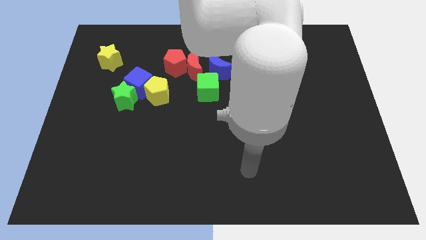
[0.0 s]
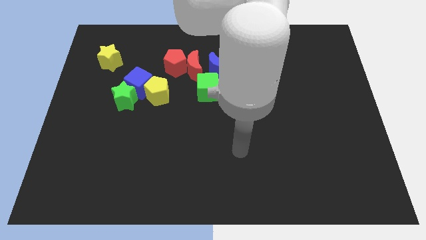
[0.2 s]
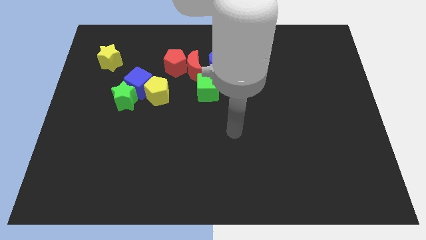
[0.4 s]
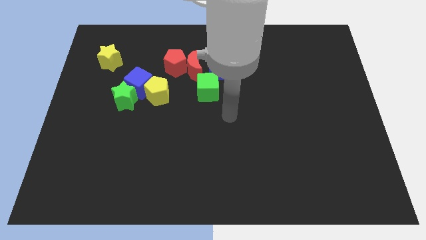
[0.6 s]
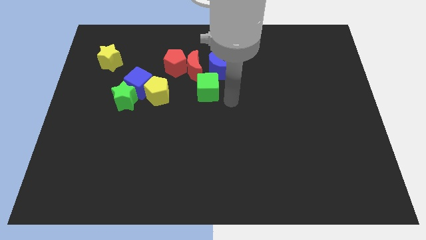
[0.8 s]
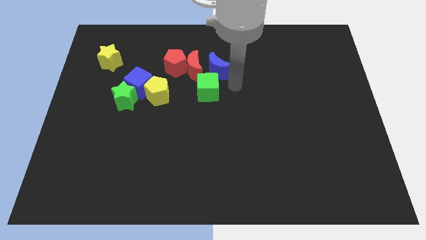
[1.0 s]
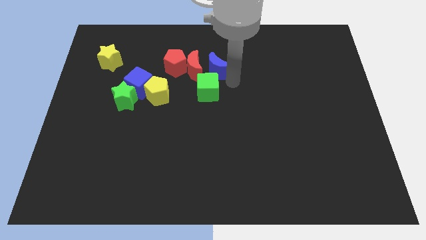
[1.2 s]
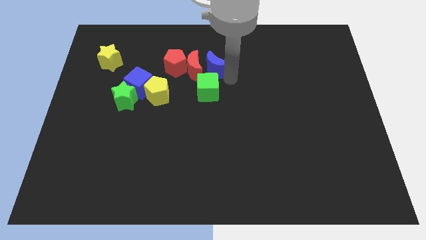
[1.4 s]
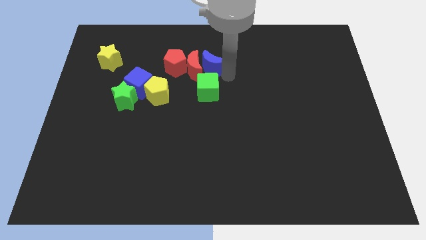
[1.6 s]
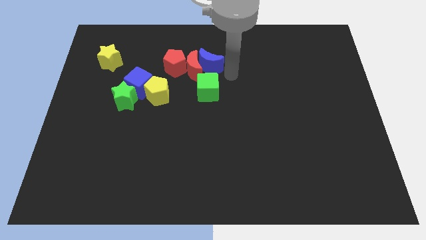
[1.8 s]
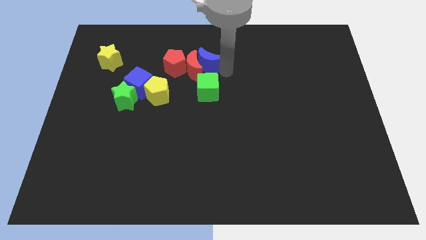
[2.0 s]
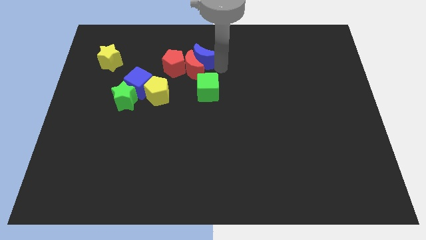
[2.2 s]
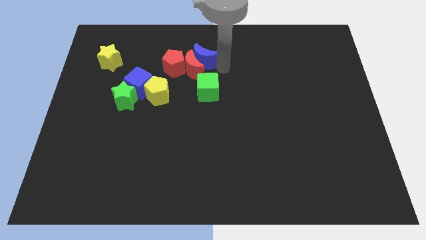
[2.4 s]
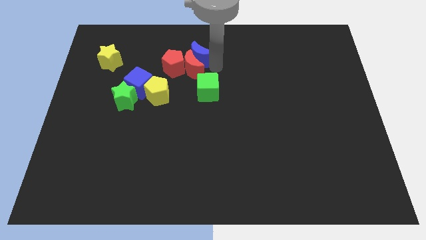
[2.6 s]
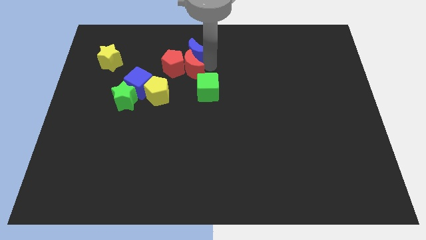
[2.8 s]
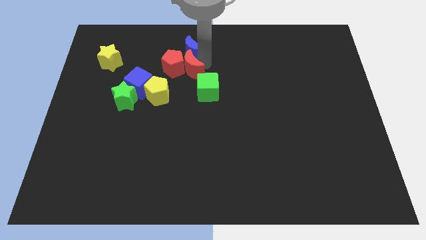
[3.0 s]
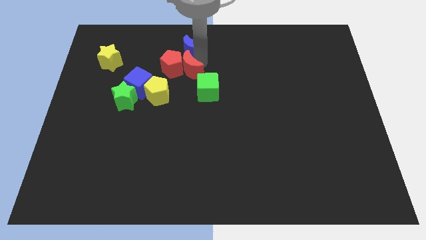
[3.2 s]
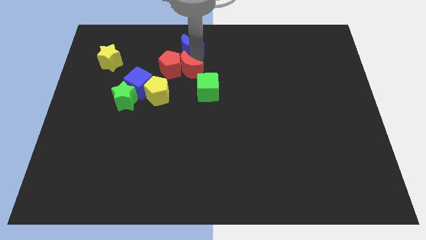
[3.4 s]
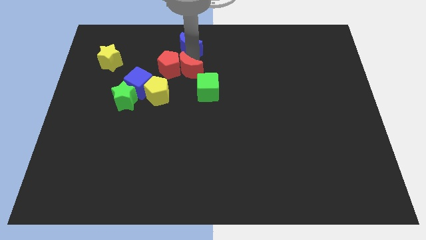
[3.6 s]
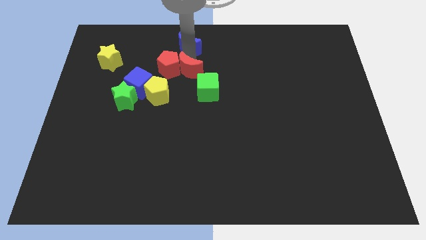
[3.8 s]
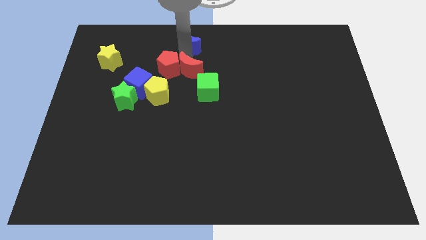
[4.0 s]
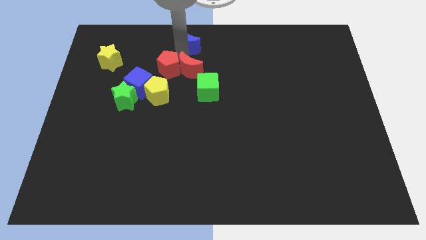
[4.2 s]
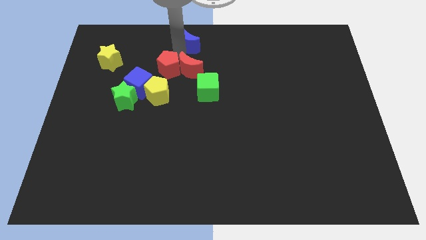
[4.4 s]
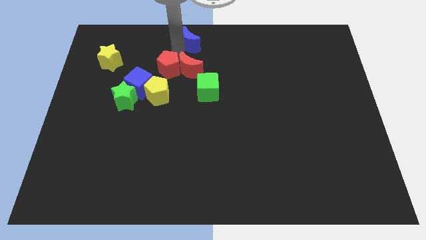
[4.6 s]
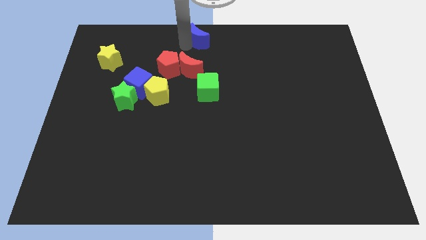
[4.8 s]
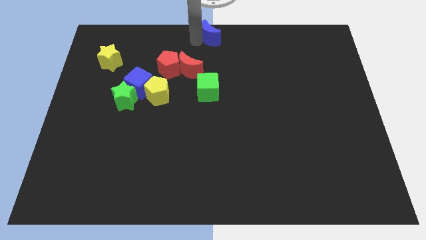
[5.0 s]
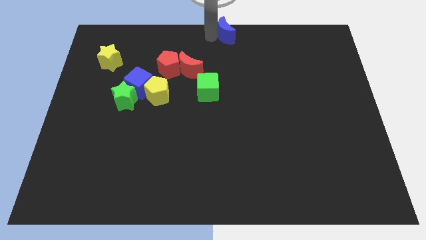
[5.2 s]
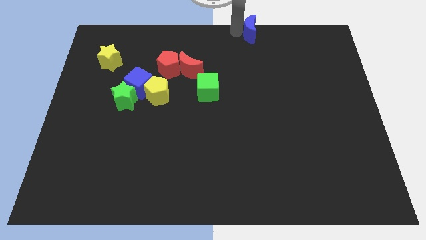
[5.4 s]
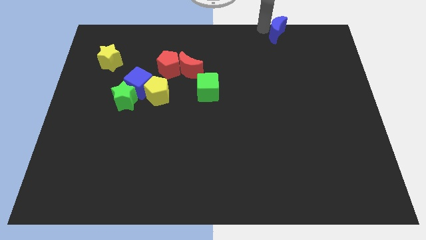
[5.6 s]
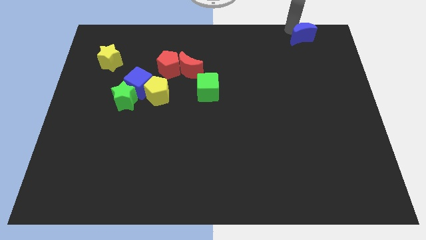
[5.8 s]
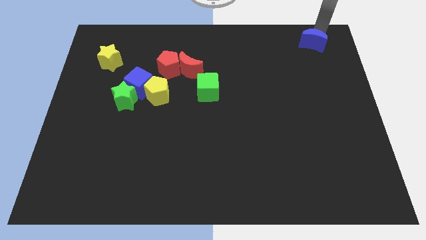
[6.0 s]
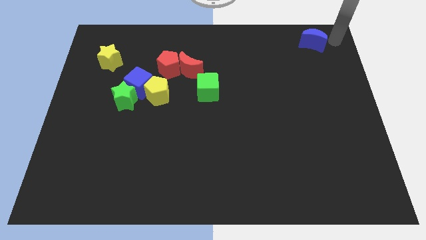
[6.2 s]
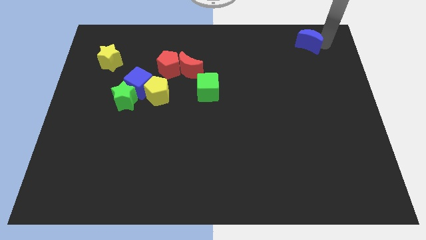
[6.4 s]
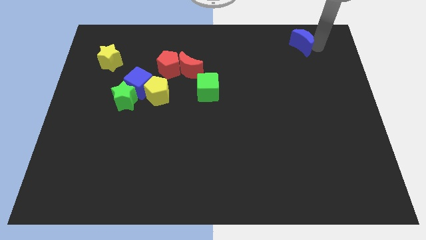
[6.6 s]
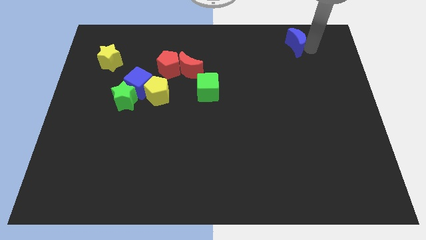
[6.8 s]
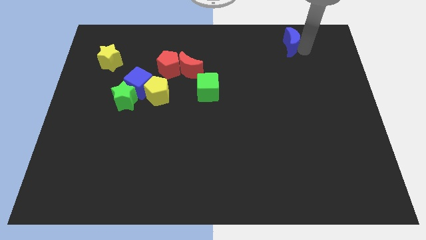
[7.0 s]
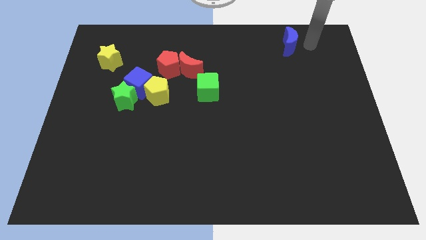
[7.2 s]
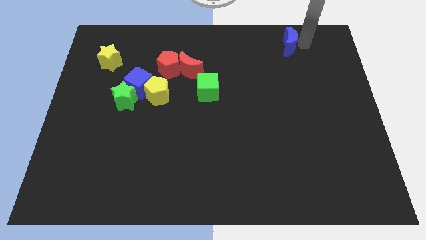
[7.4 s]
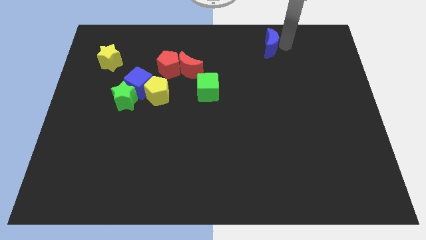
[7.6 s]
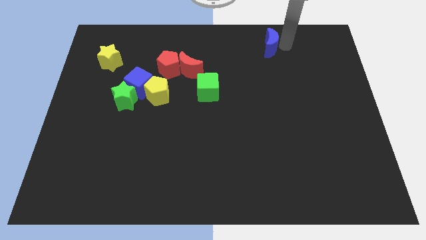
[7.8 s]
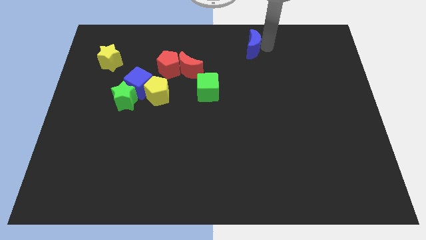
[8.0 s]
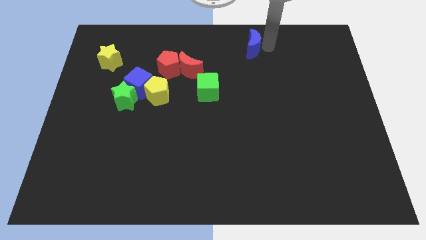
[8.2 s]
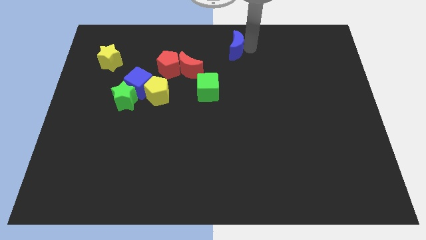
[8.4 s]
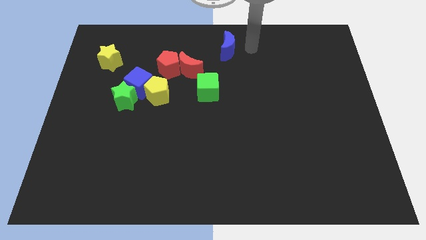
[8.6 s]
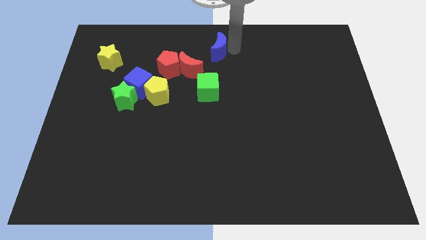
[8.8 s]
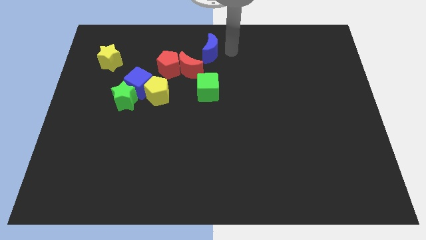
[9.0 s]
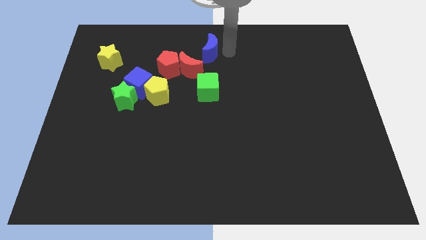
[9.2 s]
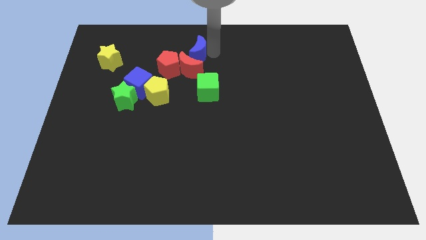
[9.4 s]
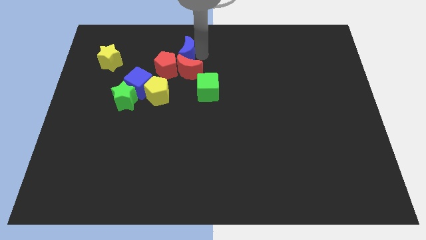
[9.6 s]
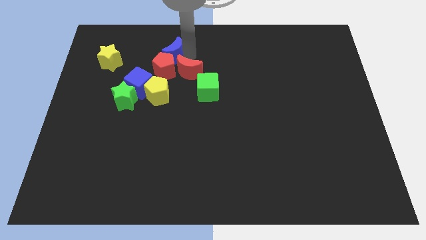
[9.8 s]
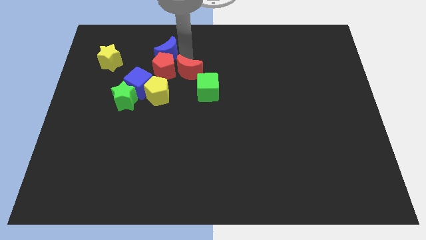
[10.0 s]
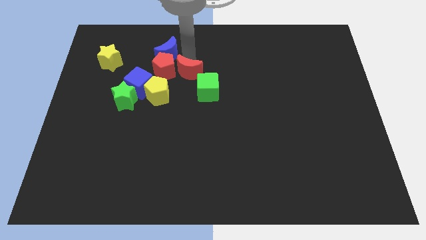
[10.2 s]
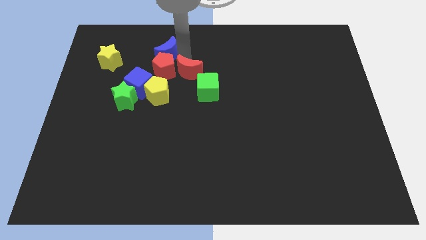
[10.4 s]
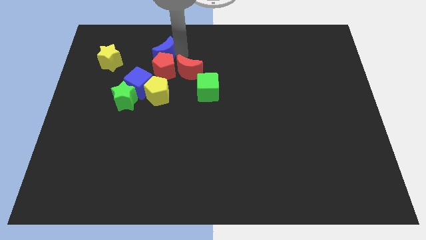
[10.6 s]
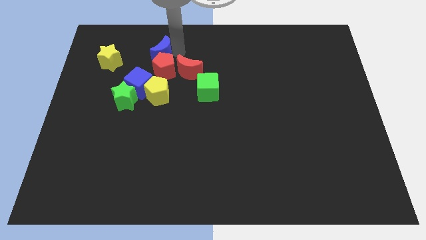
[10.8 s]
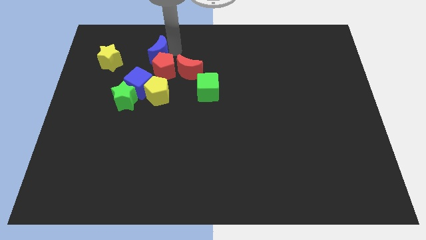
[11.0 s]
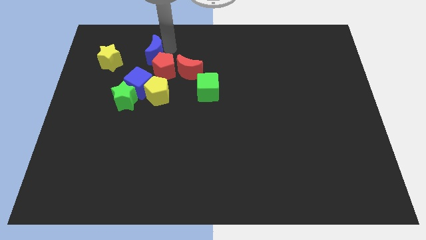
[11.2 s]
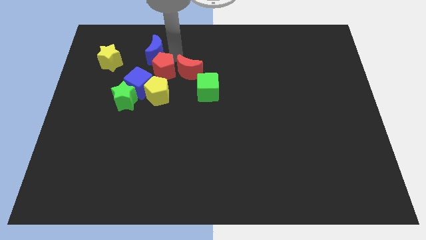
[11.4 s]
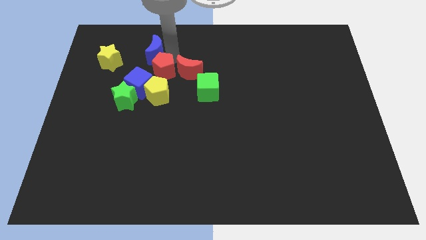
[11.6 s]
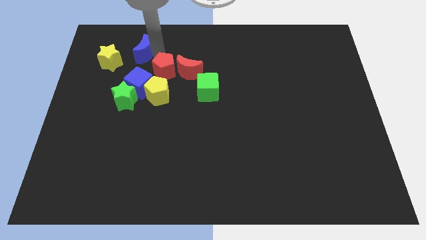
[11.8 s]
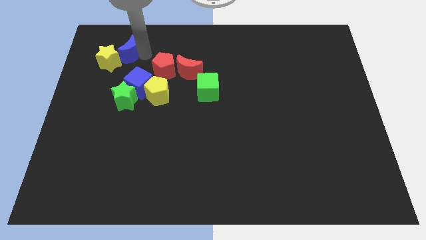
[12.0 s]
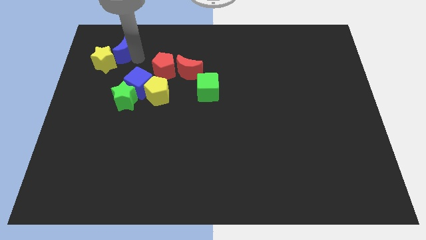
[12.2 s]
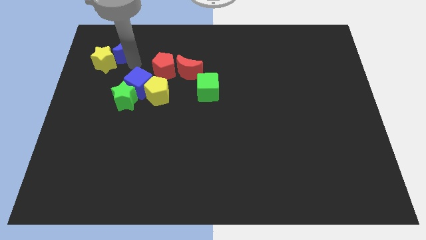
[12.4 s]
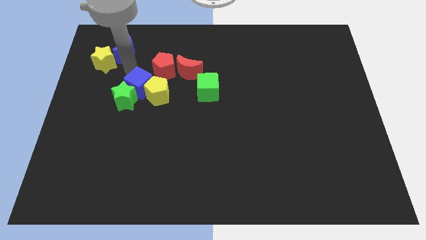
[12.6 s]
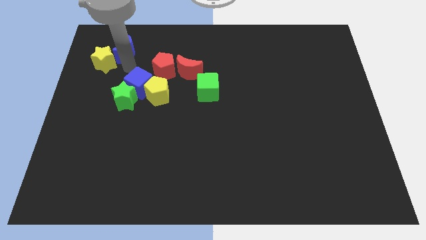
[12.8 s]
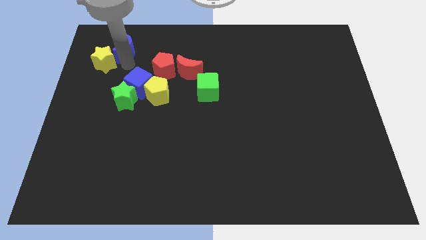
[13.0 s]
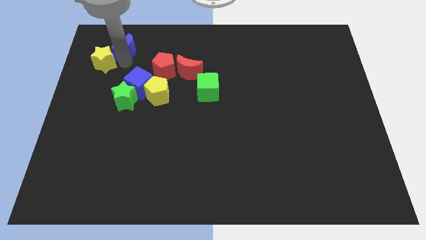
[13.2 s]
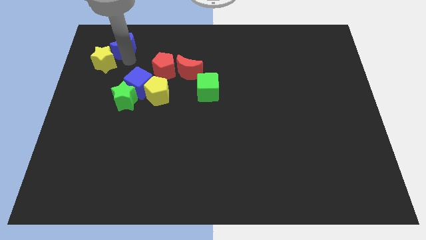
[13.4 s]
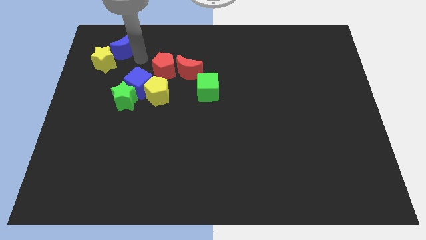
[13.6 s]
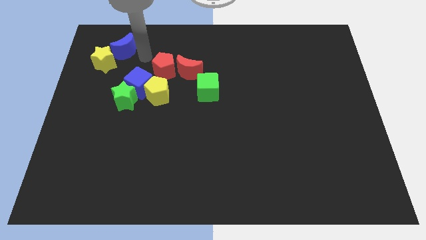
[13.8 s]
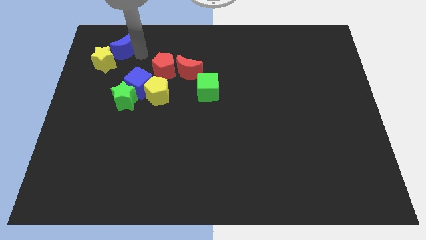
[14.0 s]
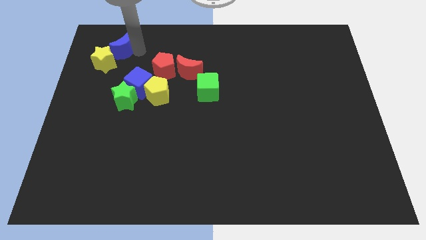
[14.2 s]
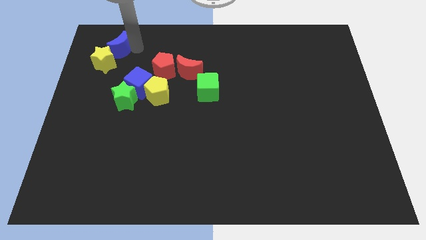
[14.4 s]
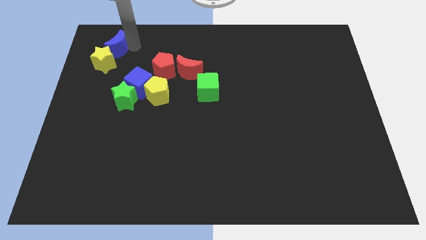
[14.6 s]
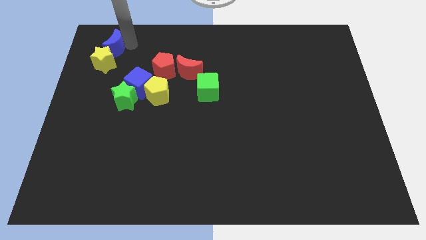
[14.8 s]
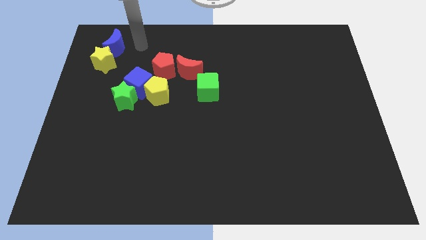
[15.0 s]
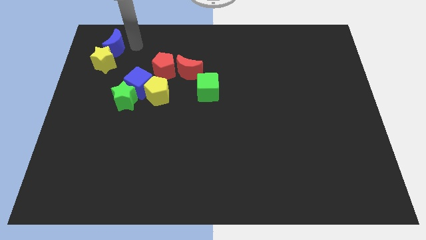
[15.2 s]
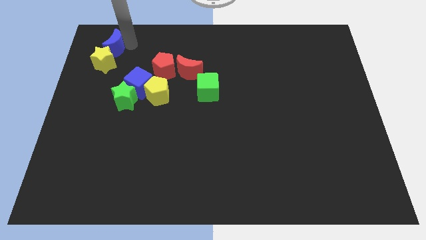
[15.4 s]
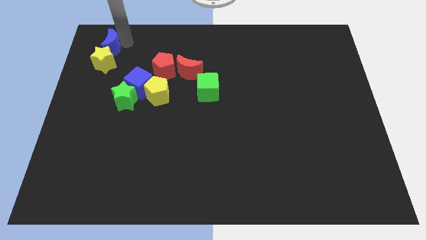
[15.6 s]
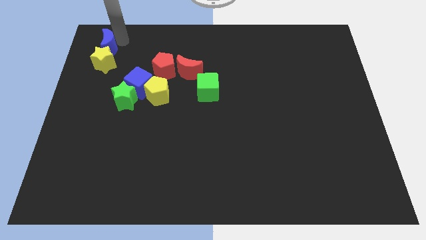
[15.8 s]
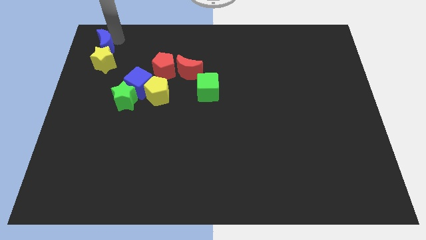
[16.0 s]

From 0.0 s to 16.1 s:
put the blue moon to the top left
